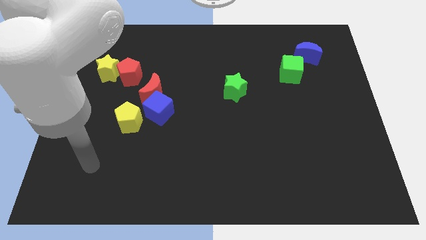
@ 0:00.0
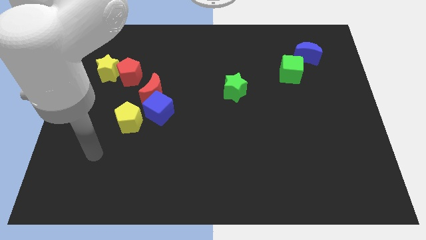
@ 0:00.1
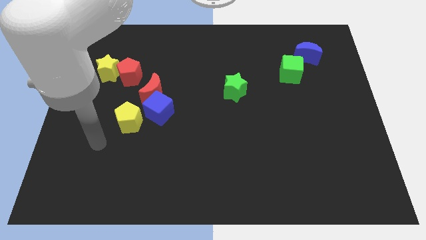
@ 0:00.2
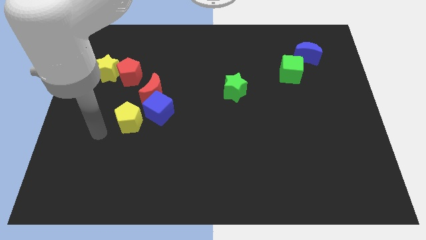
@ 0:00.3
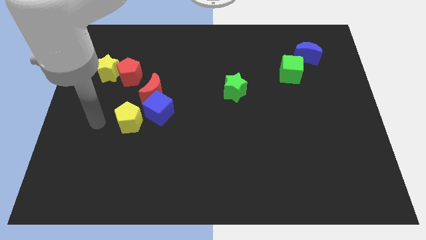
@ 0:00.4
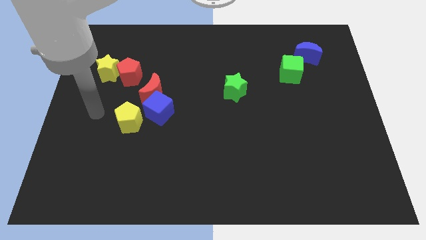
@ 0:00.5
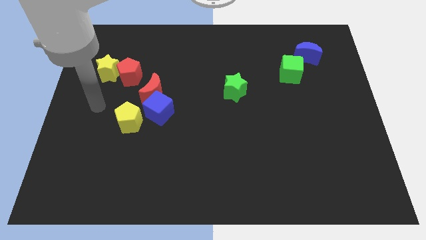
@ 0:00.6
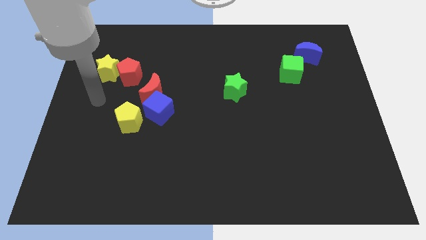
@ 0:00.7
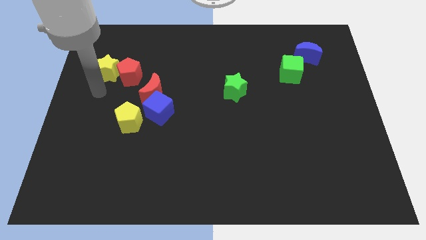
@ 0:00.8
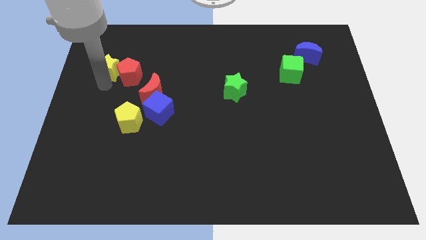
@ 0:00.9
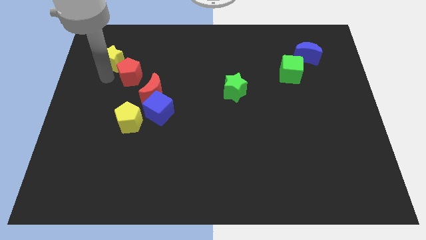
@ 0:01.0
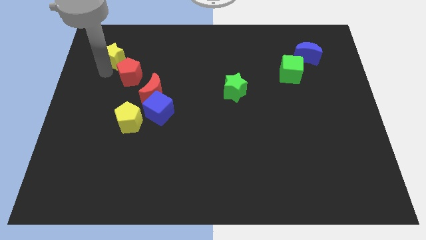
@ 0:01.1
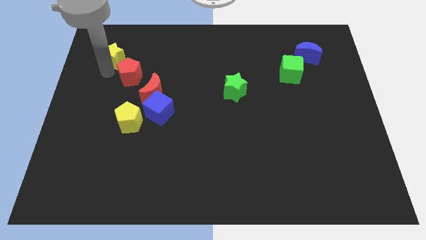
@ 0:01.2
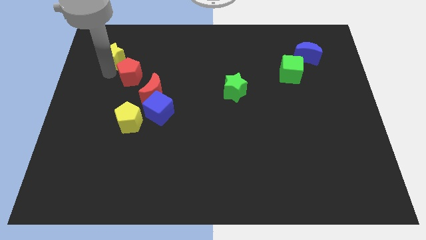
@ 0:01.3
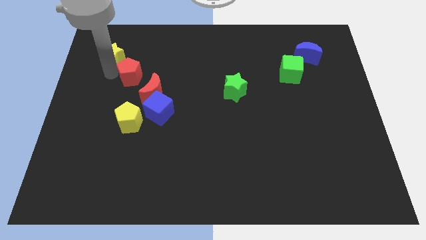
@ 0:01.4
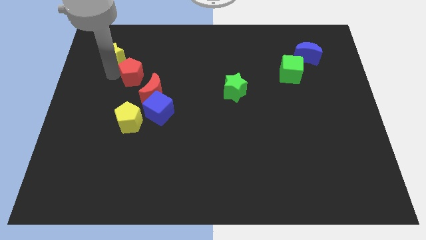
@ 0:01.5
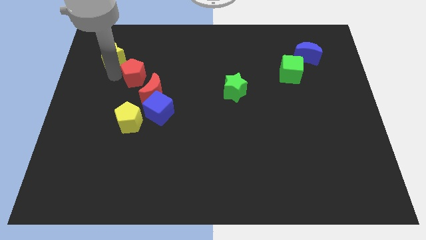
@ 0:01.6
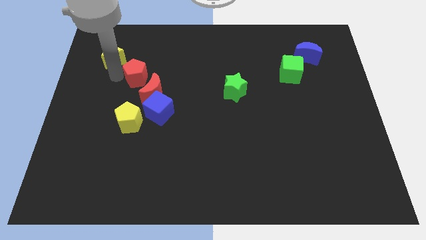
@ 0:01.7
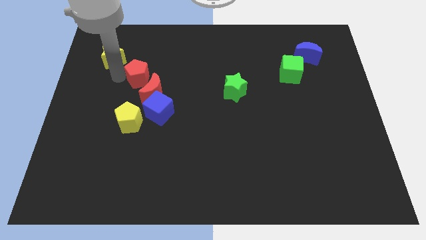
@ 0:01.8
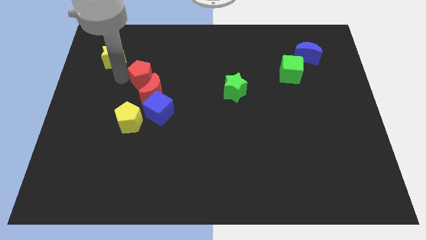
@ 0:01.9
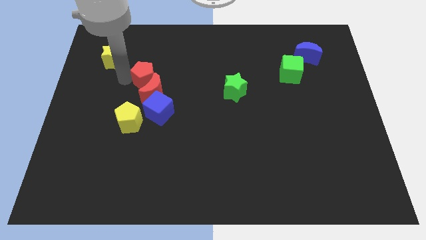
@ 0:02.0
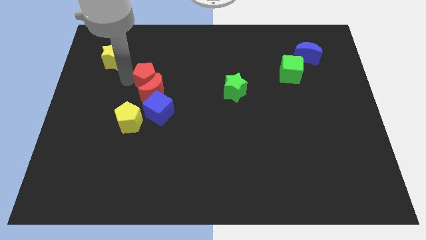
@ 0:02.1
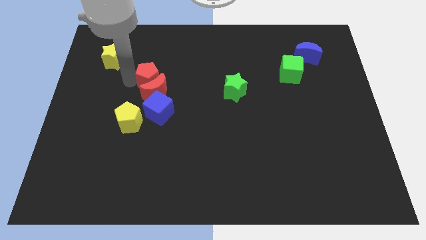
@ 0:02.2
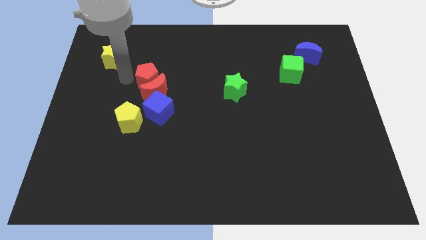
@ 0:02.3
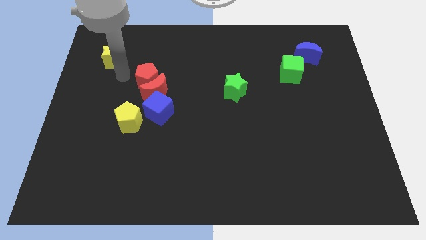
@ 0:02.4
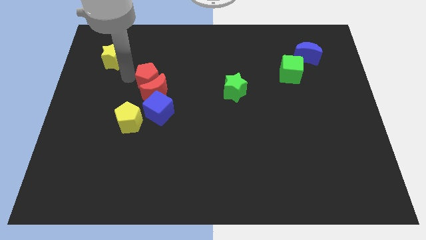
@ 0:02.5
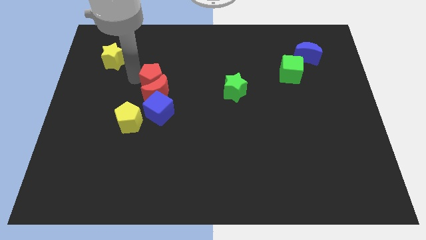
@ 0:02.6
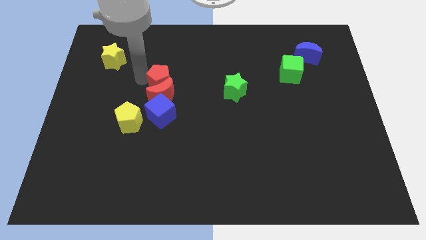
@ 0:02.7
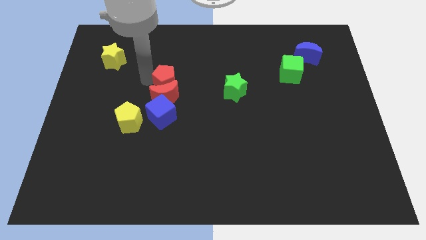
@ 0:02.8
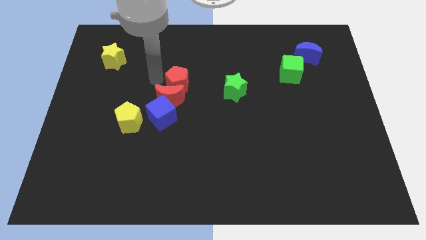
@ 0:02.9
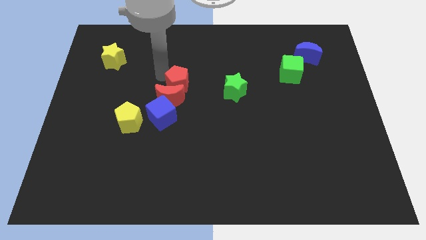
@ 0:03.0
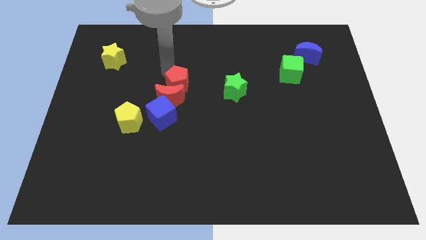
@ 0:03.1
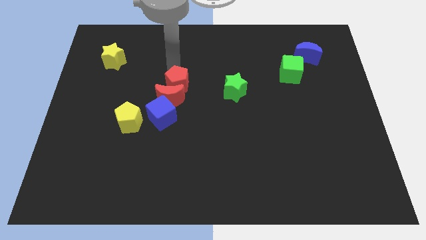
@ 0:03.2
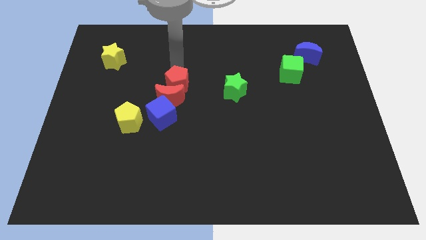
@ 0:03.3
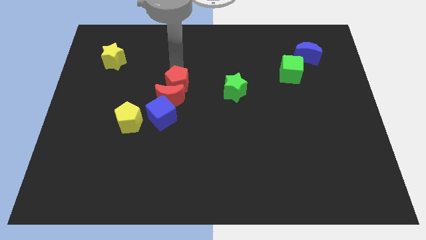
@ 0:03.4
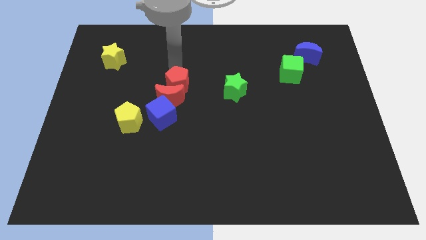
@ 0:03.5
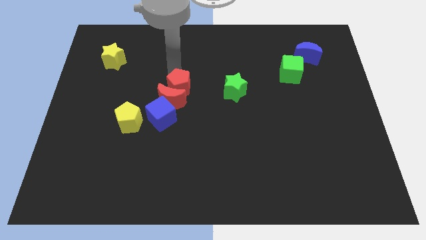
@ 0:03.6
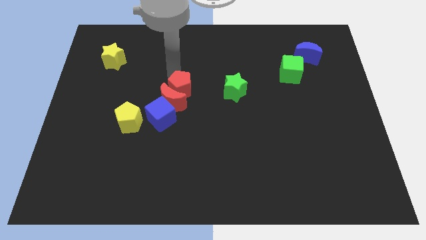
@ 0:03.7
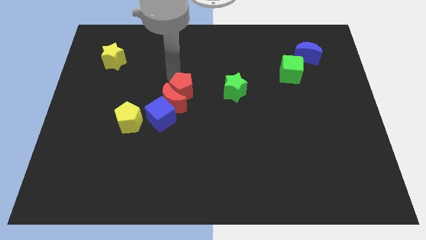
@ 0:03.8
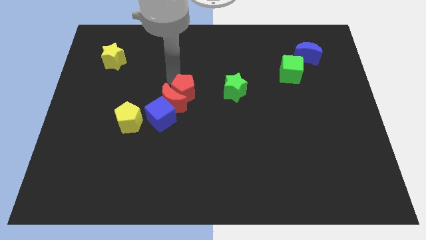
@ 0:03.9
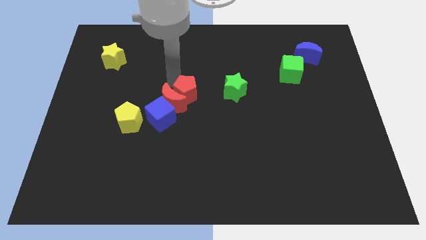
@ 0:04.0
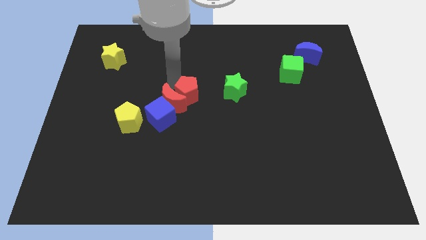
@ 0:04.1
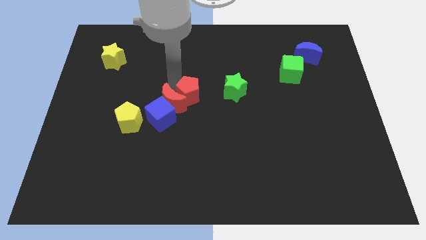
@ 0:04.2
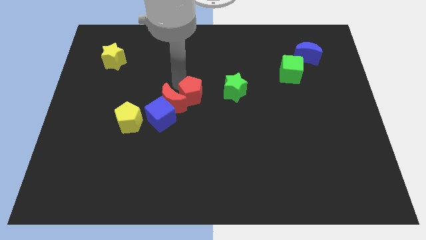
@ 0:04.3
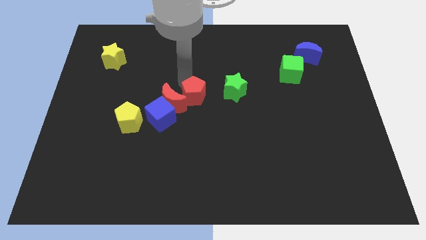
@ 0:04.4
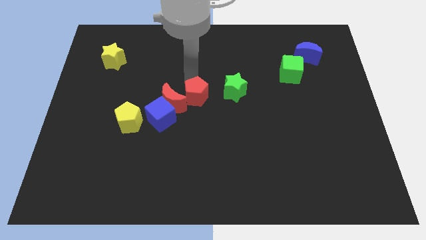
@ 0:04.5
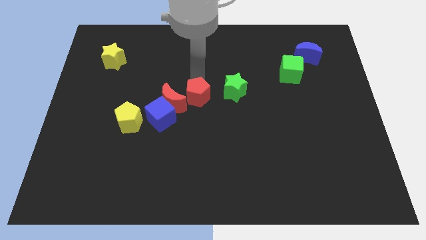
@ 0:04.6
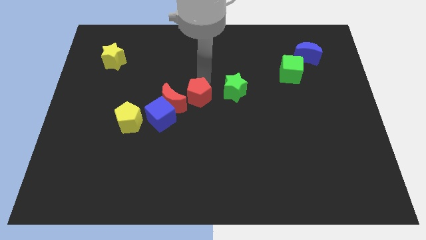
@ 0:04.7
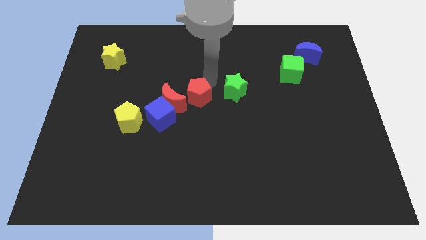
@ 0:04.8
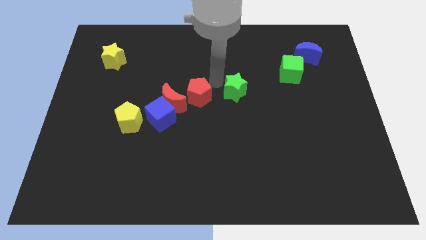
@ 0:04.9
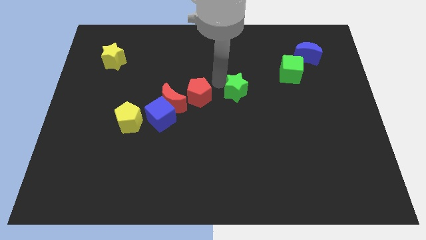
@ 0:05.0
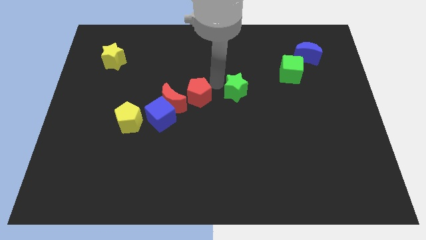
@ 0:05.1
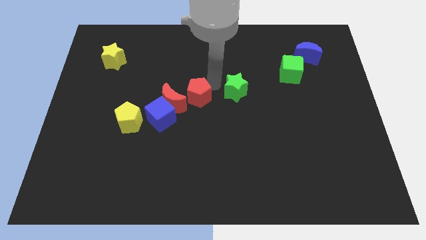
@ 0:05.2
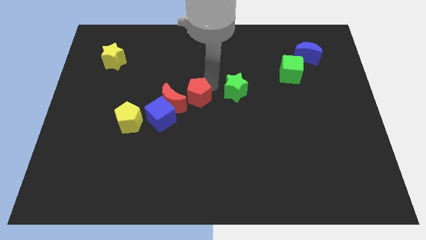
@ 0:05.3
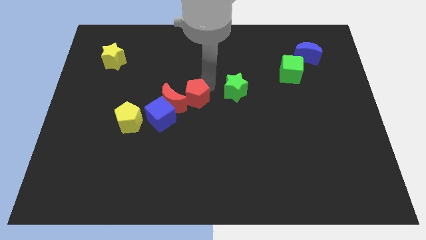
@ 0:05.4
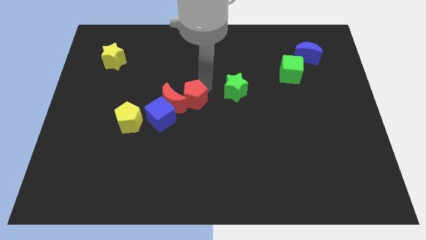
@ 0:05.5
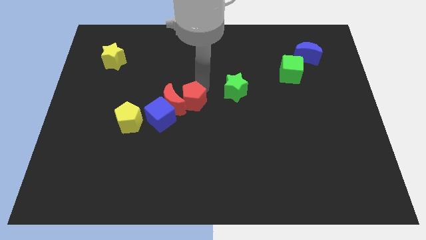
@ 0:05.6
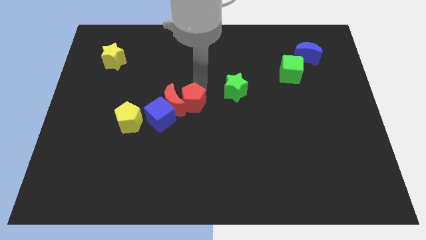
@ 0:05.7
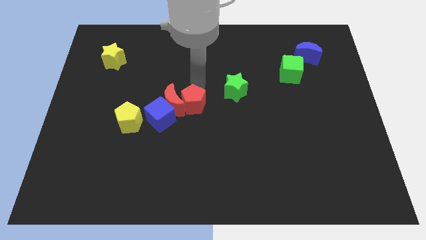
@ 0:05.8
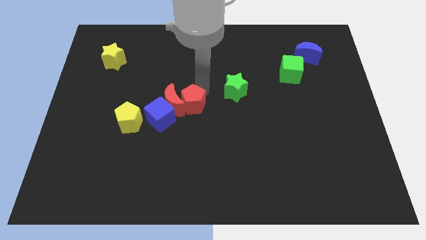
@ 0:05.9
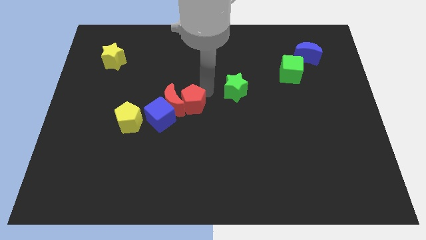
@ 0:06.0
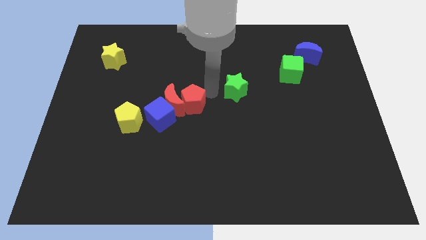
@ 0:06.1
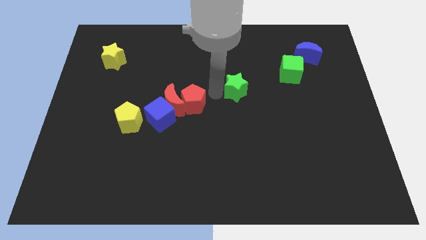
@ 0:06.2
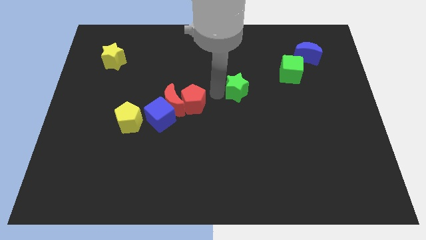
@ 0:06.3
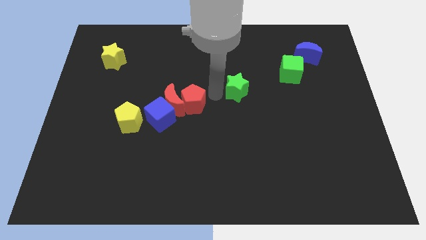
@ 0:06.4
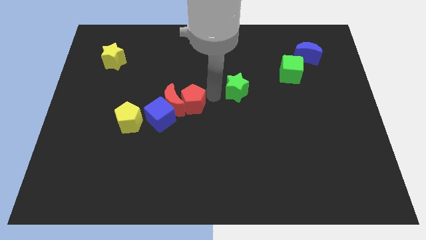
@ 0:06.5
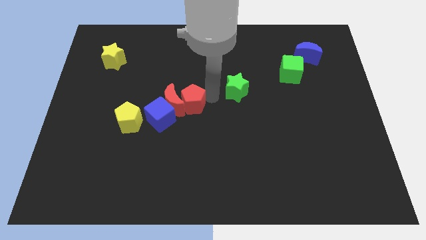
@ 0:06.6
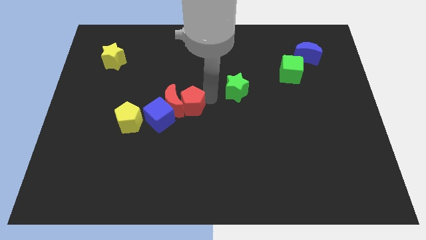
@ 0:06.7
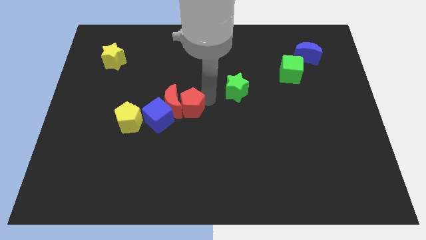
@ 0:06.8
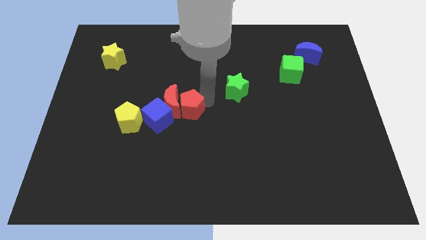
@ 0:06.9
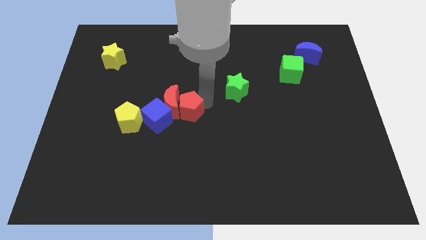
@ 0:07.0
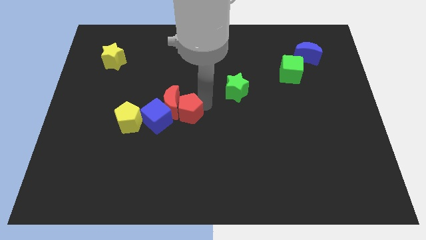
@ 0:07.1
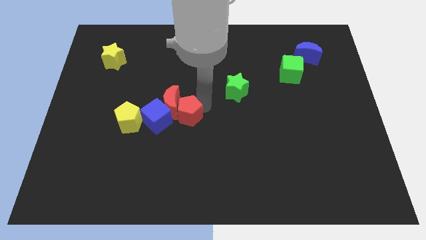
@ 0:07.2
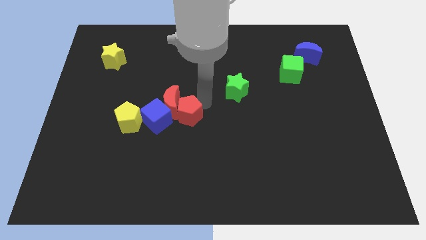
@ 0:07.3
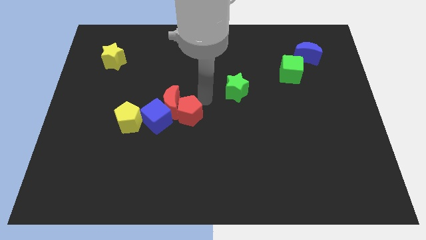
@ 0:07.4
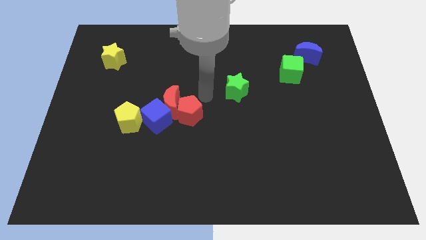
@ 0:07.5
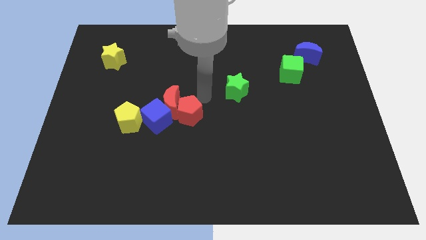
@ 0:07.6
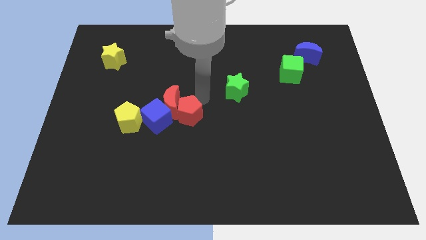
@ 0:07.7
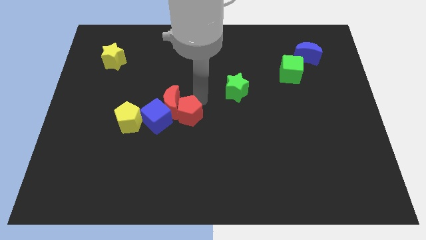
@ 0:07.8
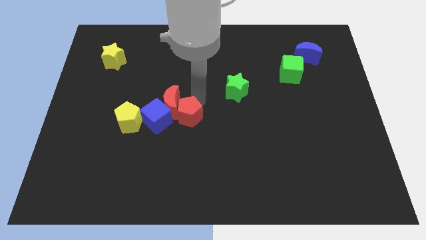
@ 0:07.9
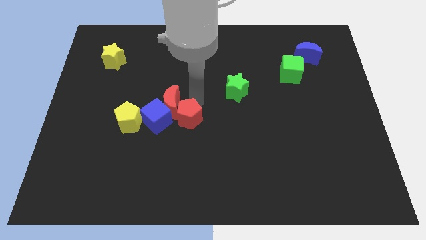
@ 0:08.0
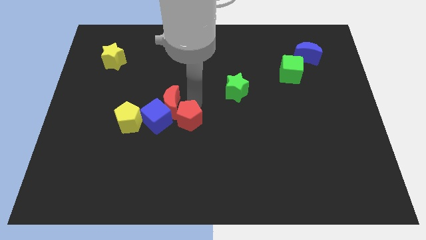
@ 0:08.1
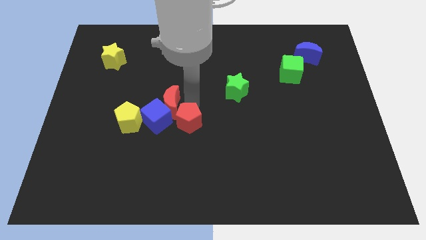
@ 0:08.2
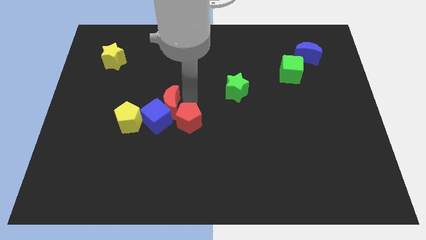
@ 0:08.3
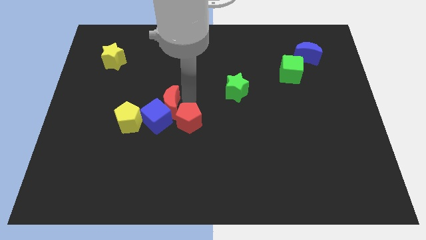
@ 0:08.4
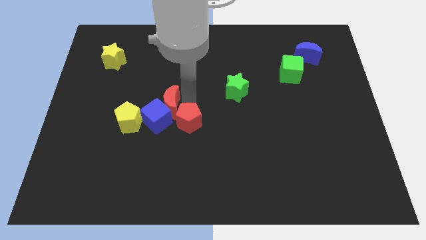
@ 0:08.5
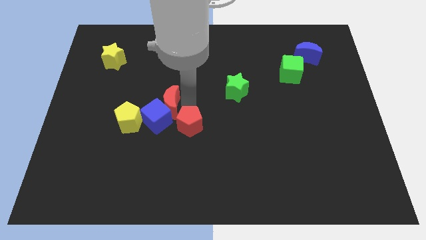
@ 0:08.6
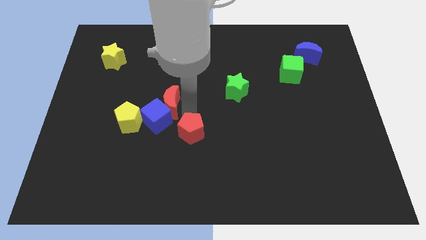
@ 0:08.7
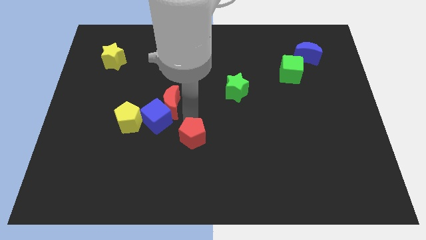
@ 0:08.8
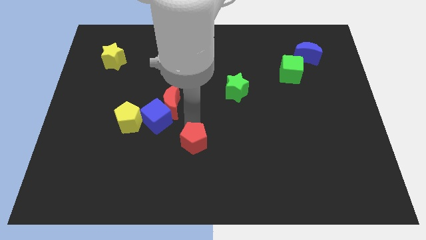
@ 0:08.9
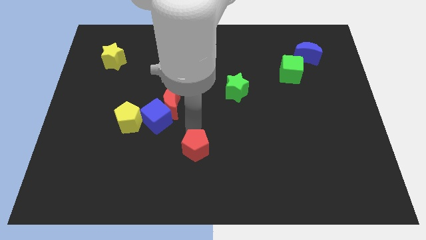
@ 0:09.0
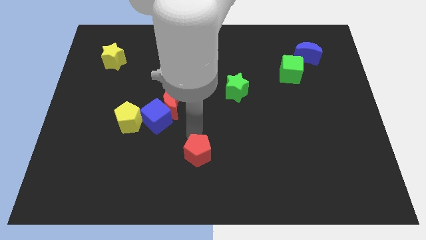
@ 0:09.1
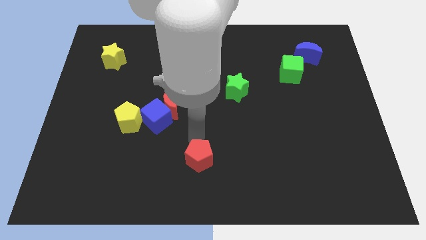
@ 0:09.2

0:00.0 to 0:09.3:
move the red pentagon to the bottom
